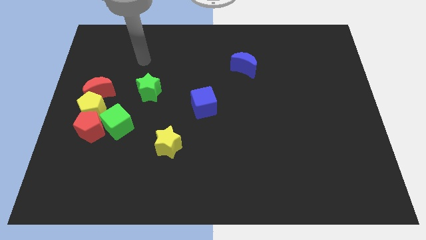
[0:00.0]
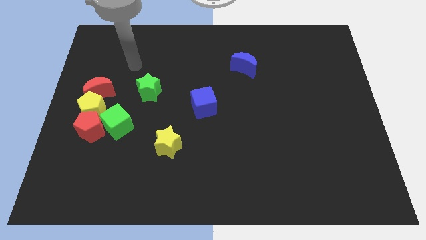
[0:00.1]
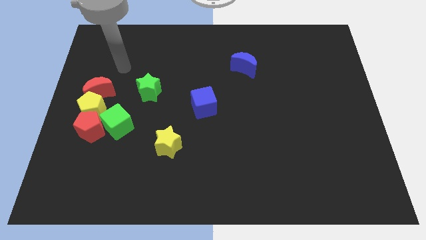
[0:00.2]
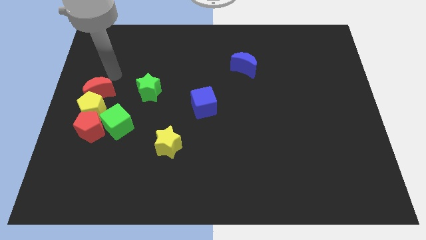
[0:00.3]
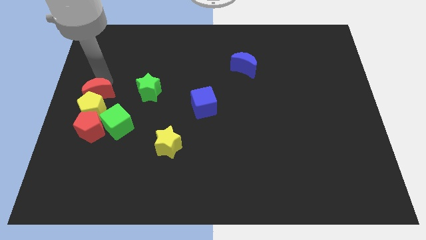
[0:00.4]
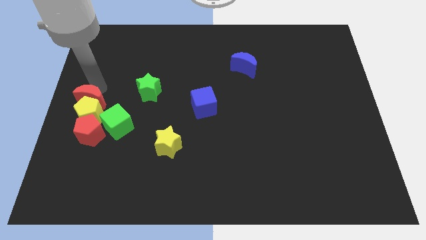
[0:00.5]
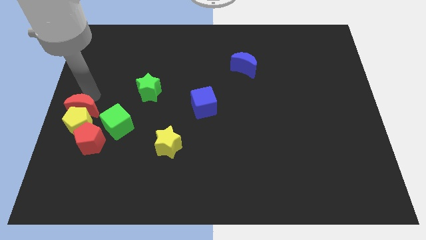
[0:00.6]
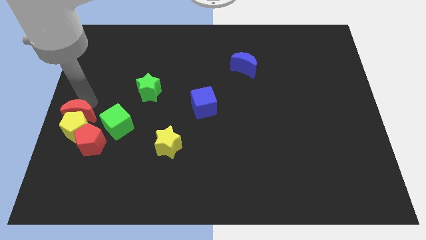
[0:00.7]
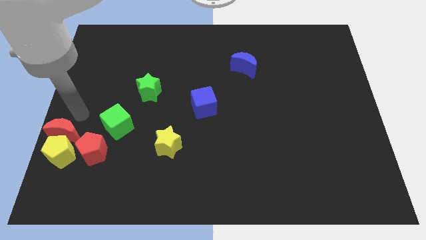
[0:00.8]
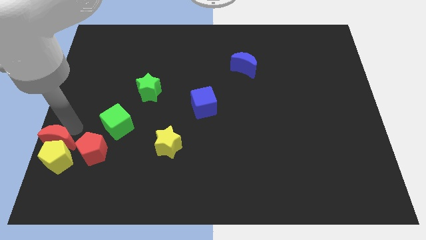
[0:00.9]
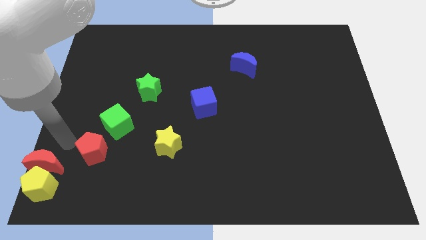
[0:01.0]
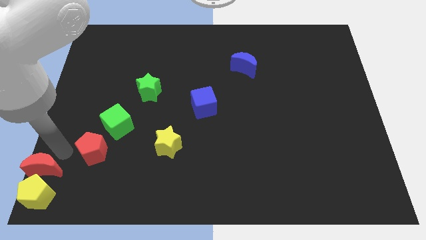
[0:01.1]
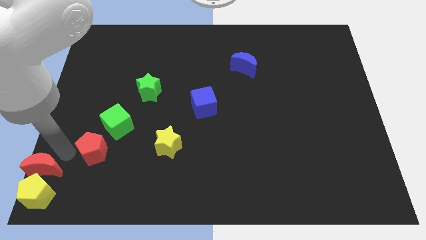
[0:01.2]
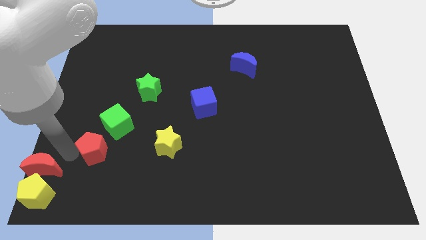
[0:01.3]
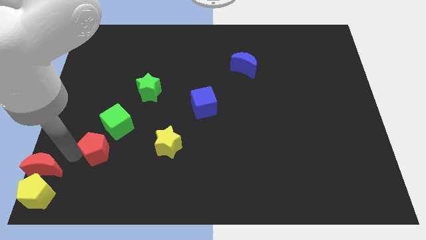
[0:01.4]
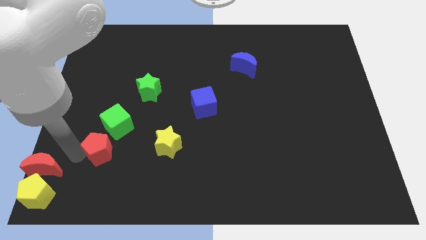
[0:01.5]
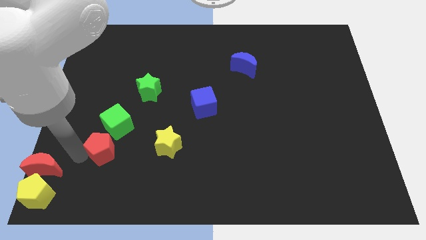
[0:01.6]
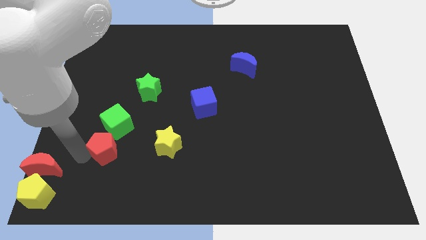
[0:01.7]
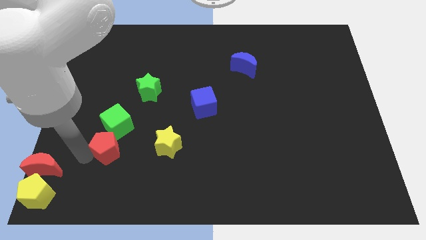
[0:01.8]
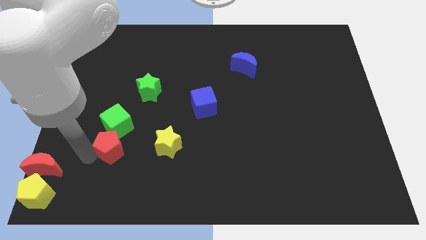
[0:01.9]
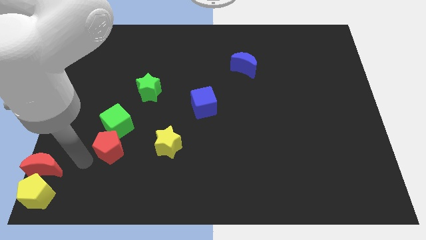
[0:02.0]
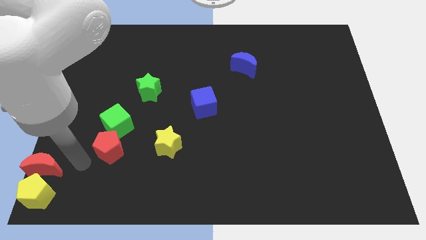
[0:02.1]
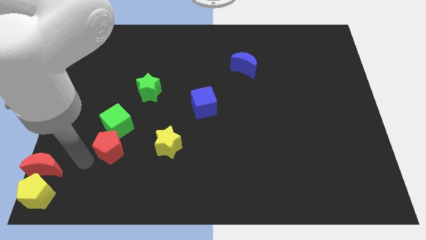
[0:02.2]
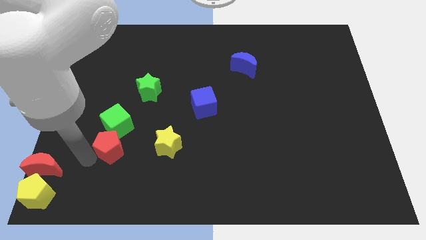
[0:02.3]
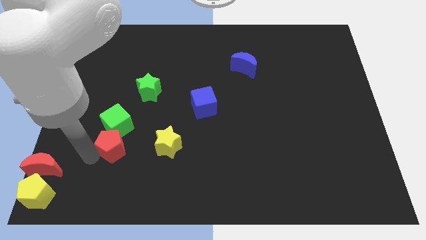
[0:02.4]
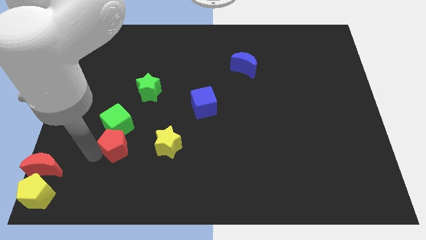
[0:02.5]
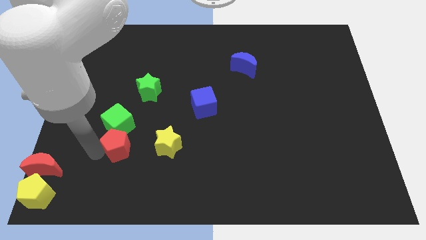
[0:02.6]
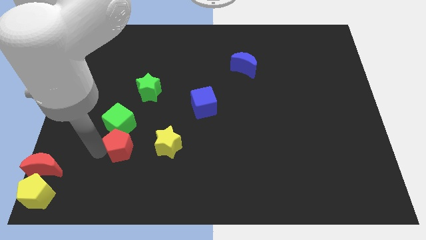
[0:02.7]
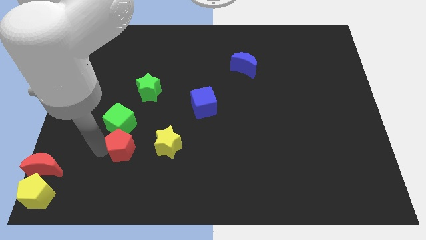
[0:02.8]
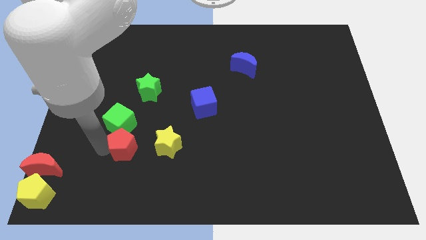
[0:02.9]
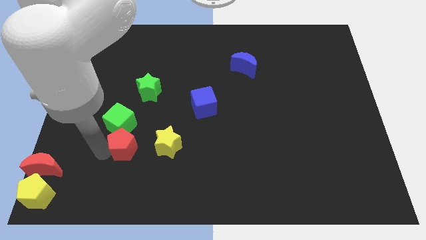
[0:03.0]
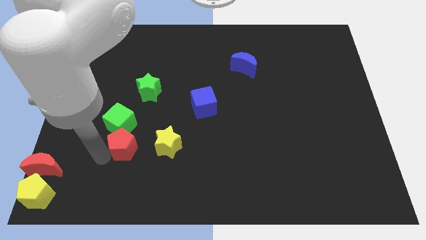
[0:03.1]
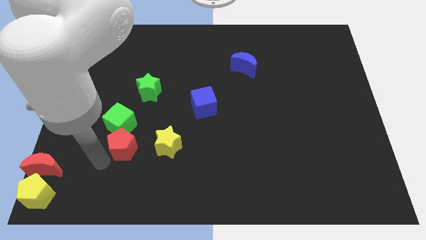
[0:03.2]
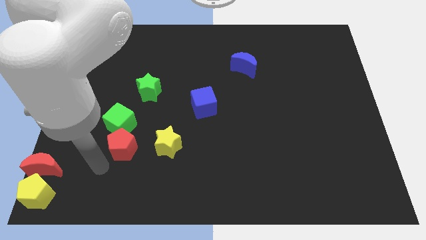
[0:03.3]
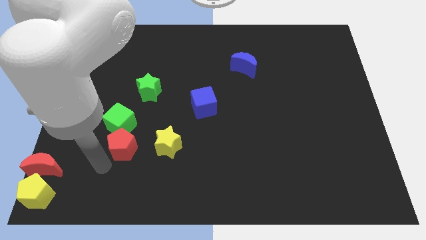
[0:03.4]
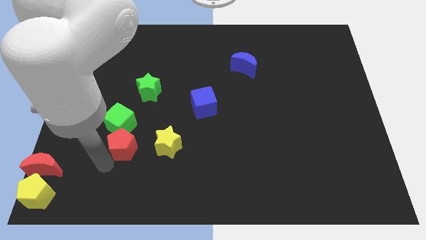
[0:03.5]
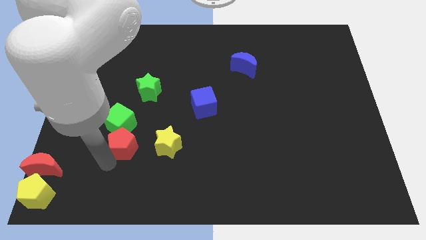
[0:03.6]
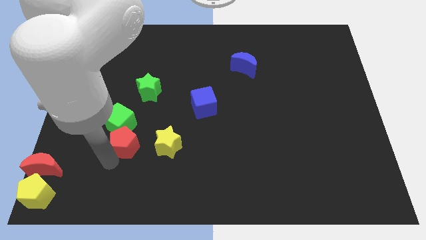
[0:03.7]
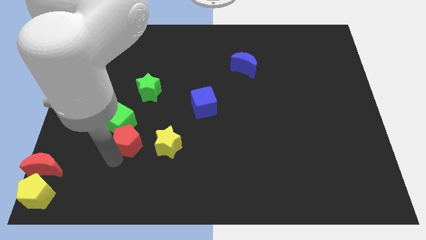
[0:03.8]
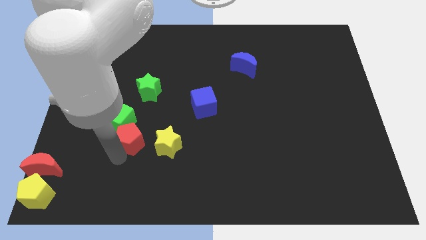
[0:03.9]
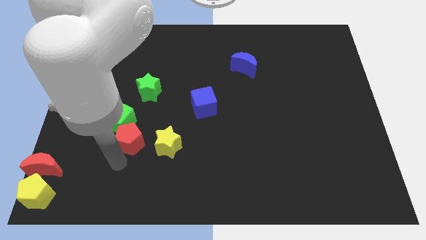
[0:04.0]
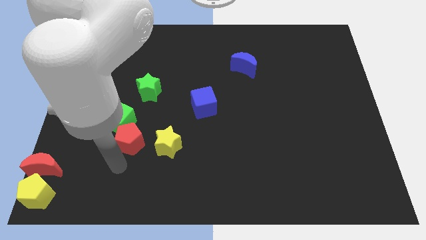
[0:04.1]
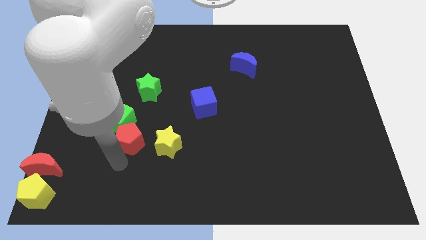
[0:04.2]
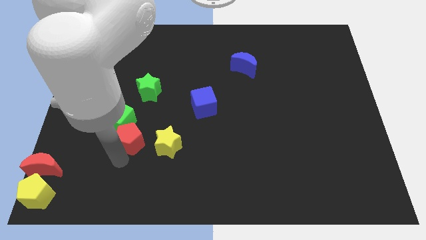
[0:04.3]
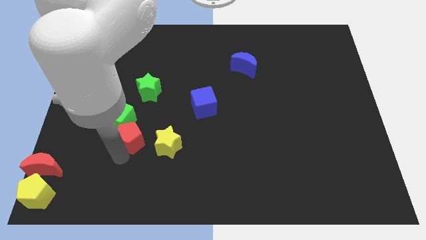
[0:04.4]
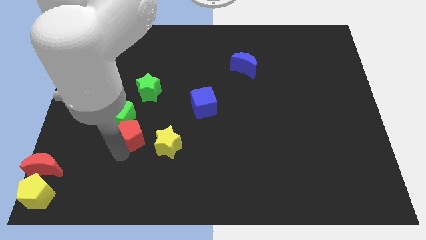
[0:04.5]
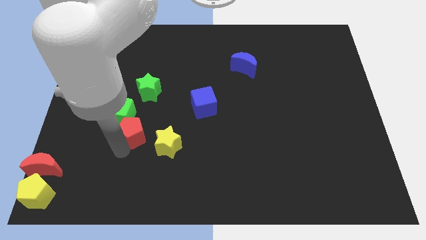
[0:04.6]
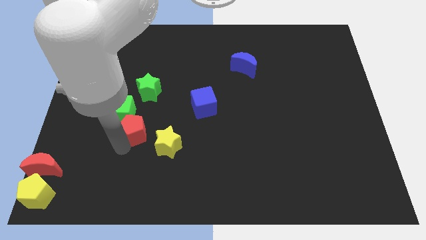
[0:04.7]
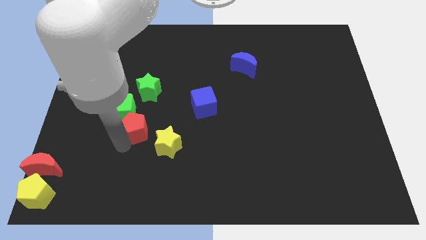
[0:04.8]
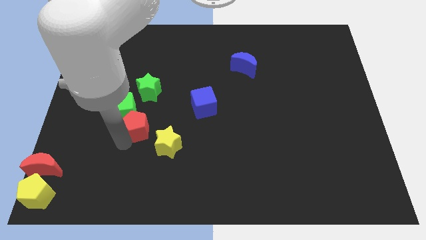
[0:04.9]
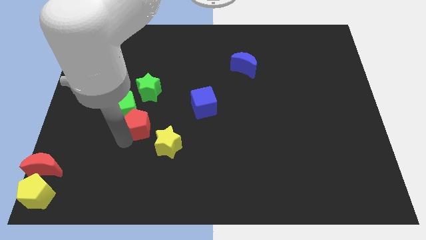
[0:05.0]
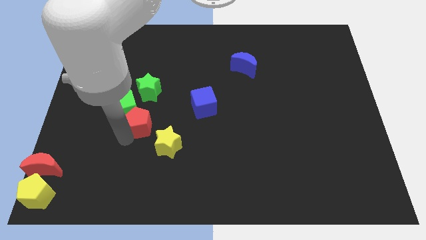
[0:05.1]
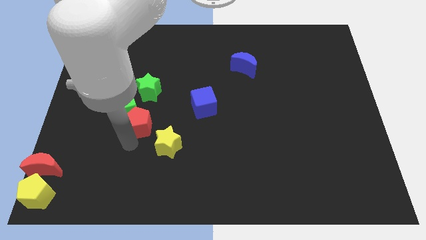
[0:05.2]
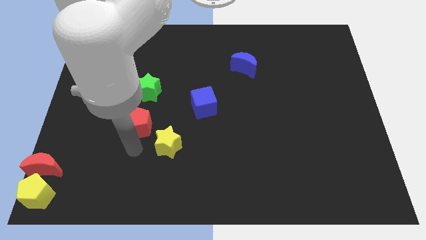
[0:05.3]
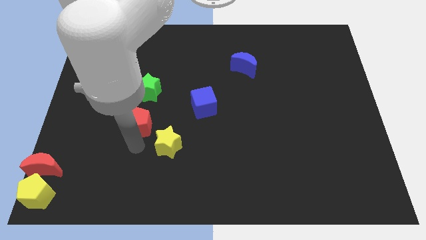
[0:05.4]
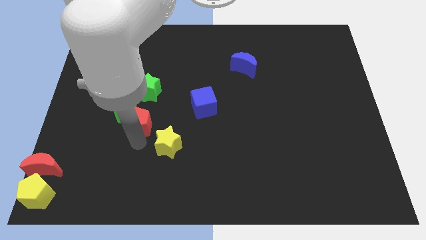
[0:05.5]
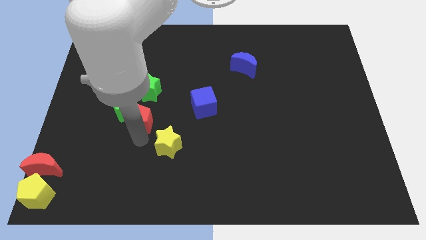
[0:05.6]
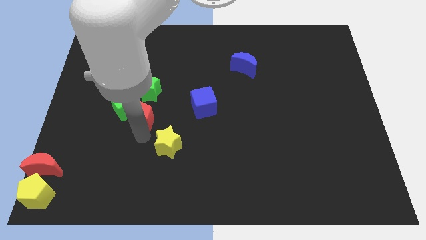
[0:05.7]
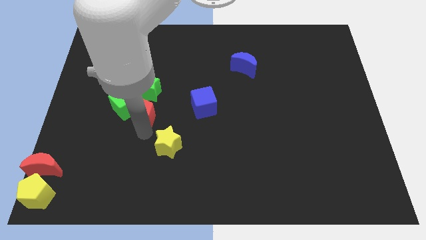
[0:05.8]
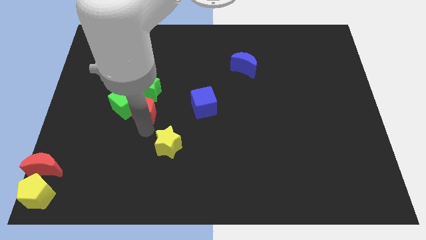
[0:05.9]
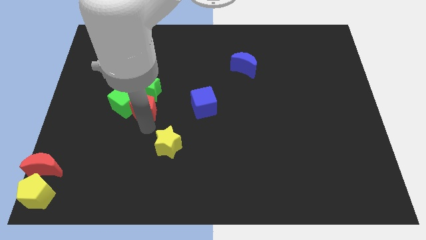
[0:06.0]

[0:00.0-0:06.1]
slide the red pentagon next to the green star
